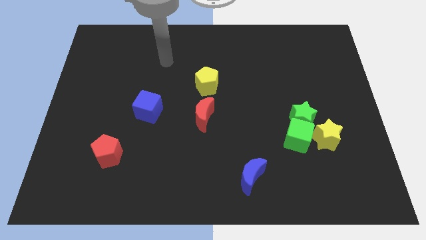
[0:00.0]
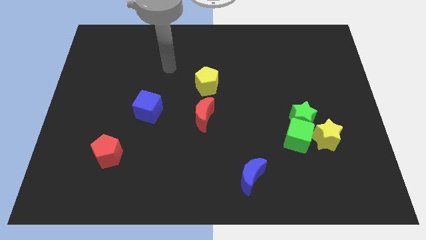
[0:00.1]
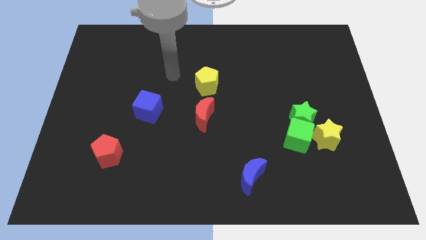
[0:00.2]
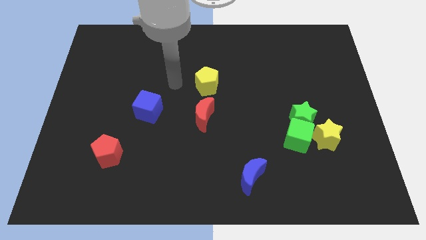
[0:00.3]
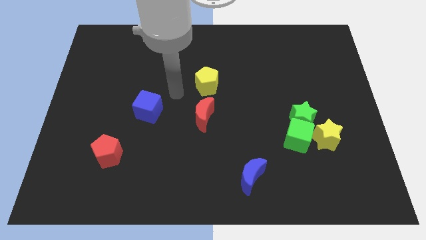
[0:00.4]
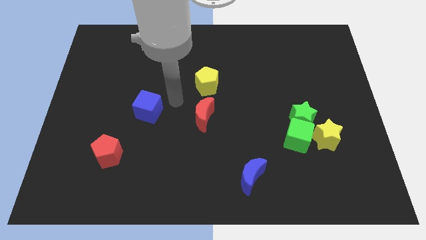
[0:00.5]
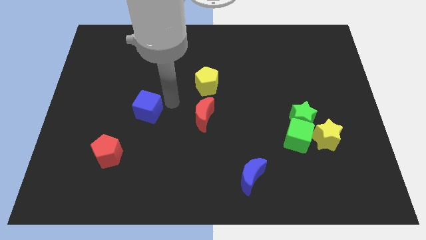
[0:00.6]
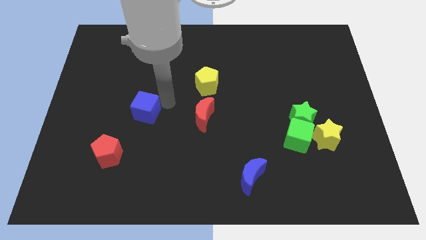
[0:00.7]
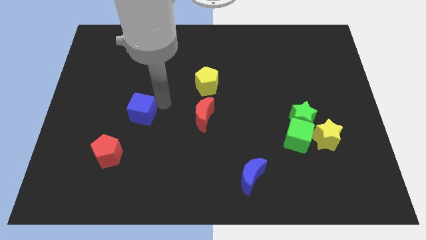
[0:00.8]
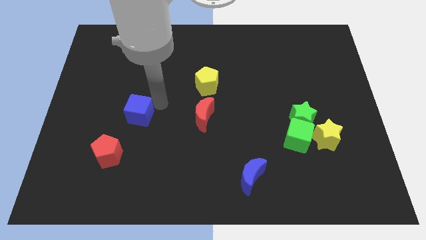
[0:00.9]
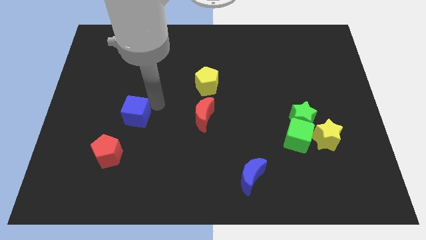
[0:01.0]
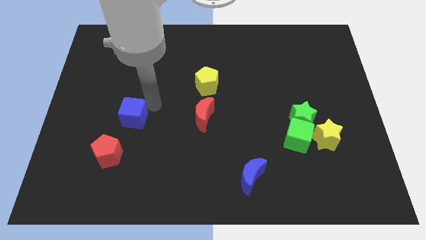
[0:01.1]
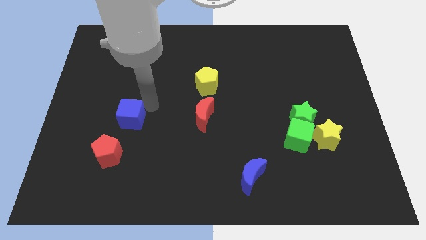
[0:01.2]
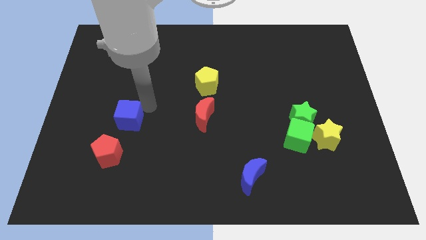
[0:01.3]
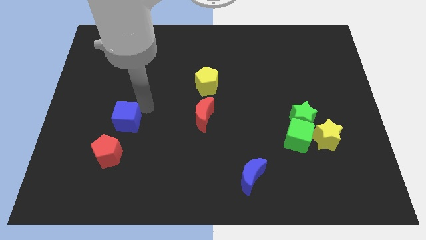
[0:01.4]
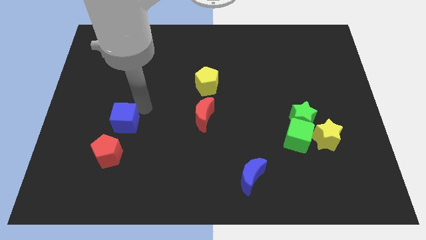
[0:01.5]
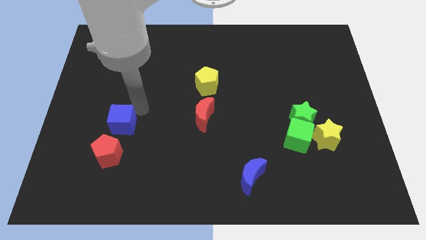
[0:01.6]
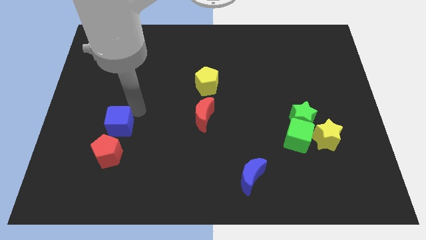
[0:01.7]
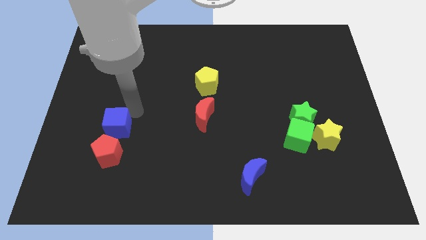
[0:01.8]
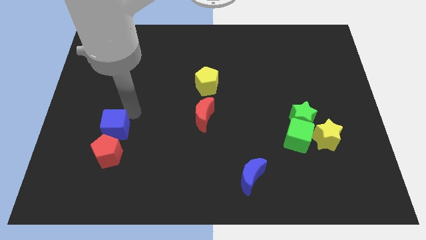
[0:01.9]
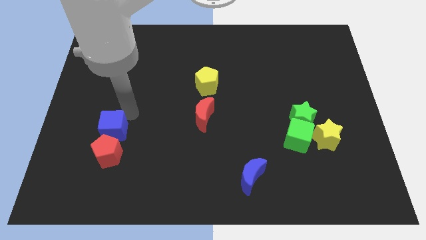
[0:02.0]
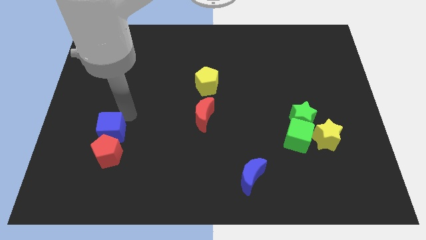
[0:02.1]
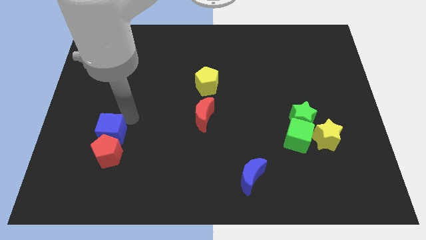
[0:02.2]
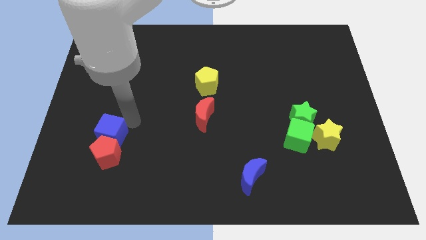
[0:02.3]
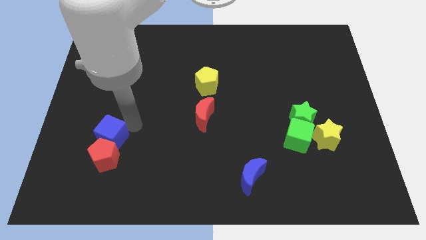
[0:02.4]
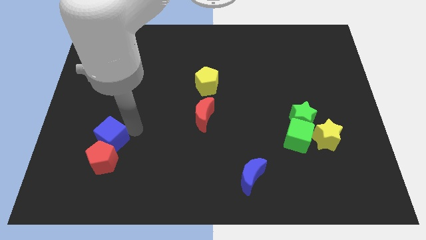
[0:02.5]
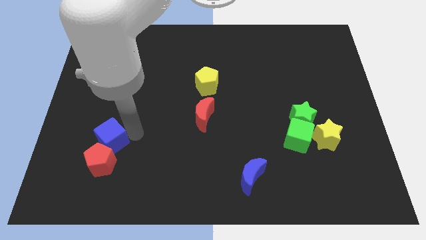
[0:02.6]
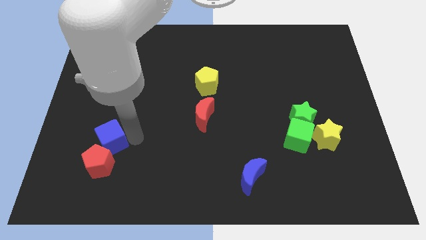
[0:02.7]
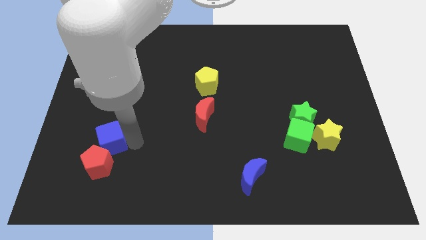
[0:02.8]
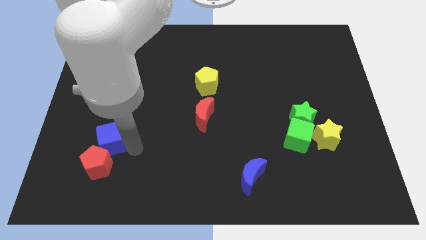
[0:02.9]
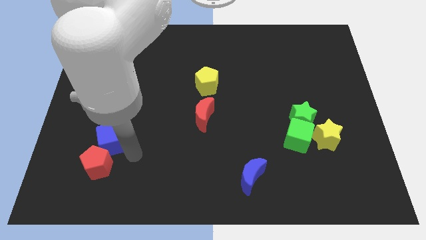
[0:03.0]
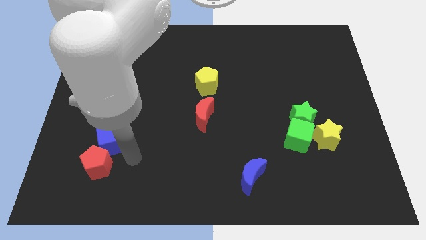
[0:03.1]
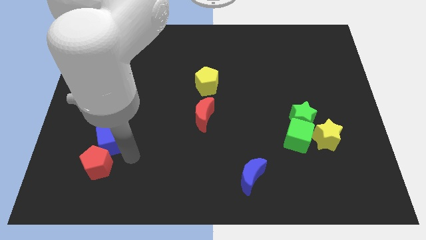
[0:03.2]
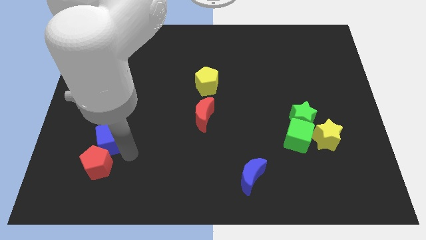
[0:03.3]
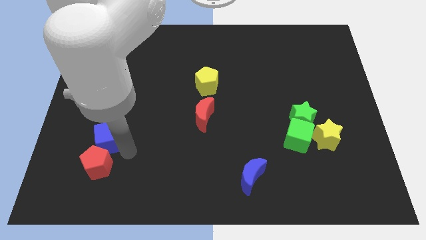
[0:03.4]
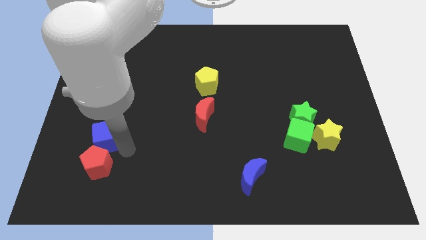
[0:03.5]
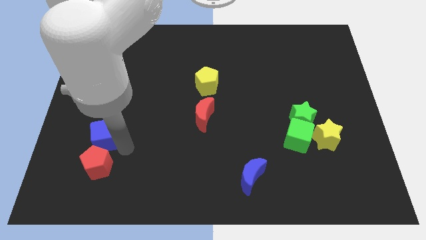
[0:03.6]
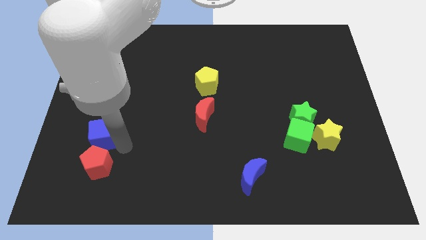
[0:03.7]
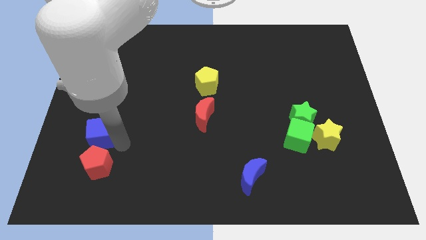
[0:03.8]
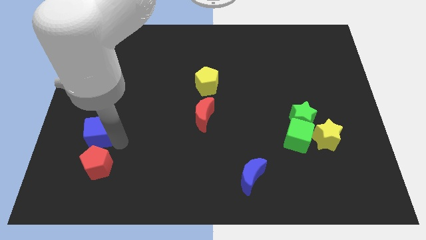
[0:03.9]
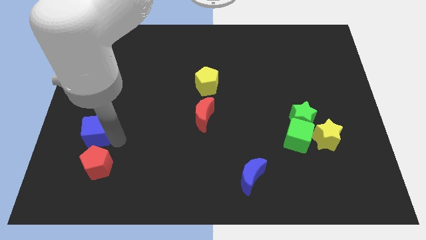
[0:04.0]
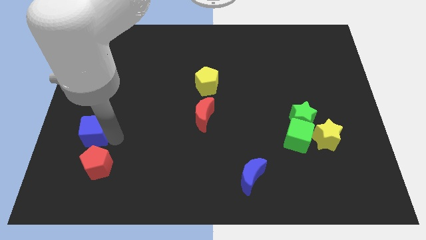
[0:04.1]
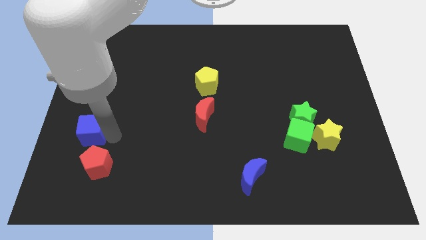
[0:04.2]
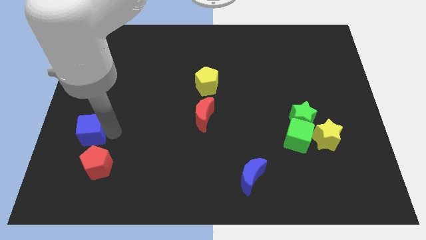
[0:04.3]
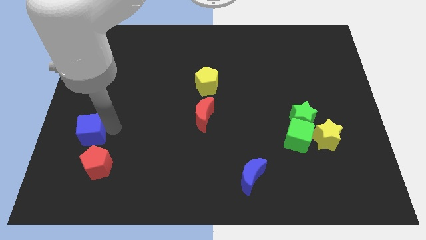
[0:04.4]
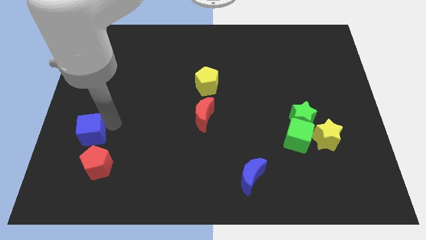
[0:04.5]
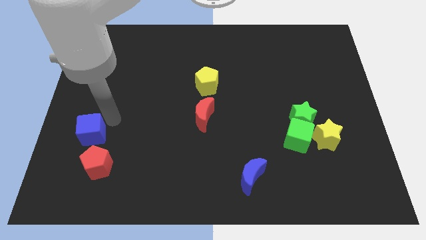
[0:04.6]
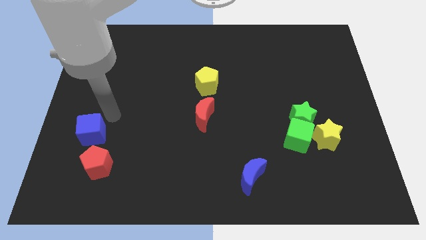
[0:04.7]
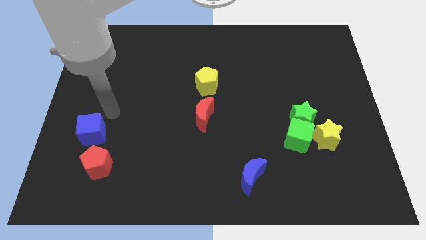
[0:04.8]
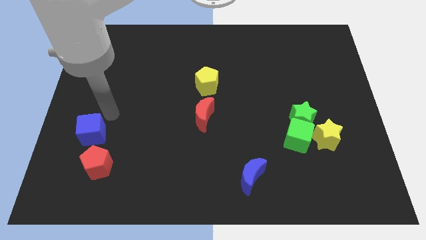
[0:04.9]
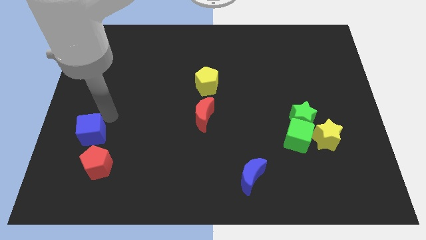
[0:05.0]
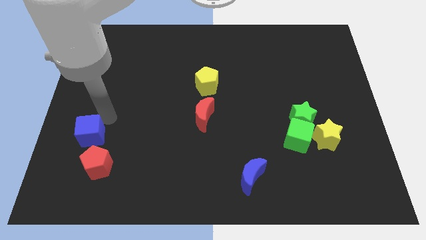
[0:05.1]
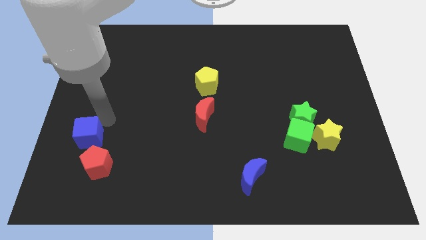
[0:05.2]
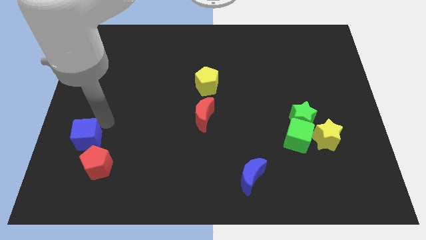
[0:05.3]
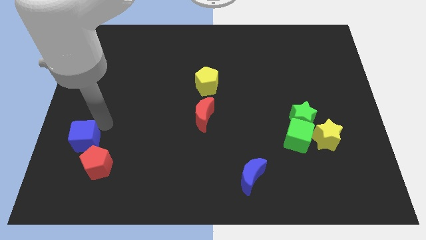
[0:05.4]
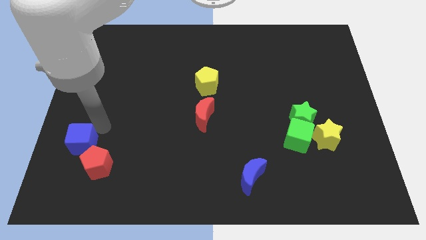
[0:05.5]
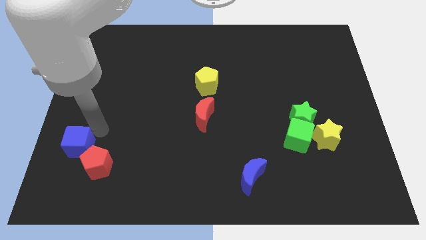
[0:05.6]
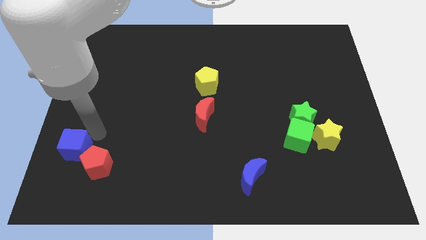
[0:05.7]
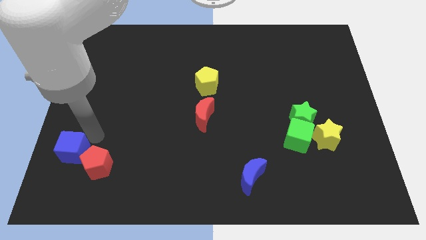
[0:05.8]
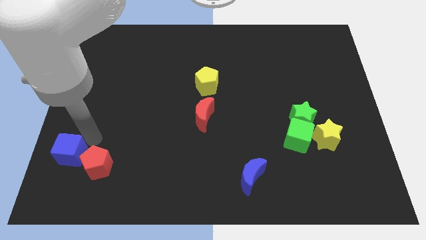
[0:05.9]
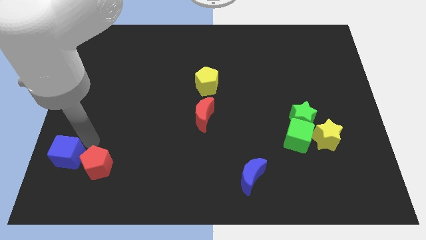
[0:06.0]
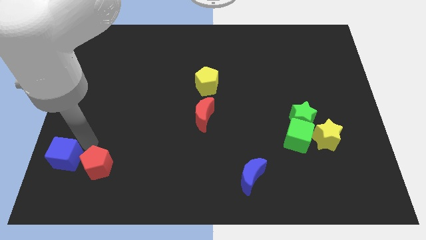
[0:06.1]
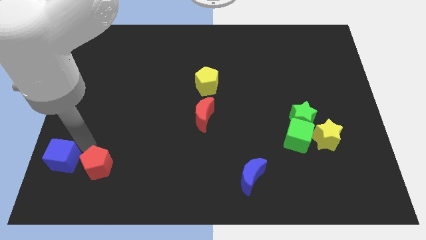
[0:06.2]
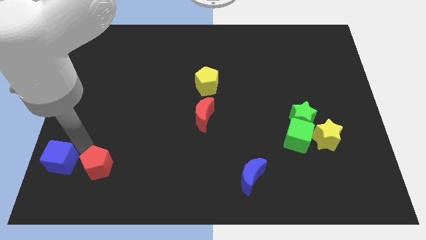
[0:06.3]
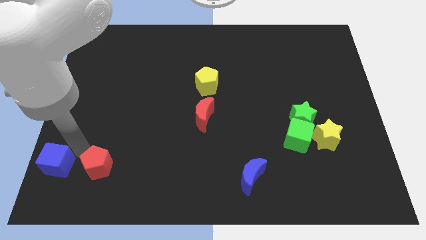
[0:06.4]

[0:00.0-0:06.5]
slide the blue cube to the bottom left

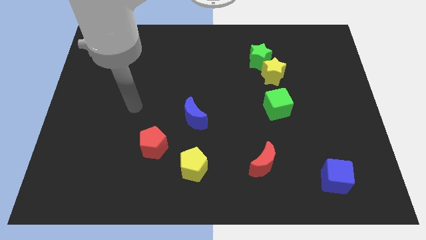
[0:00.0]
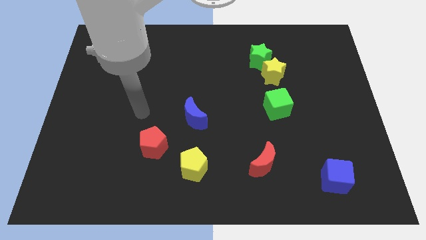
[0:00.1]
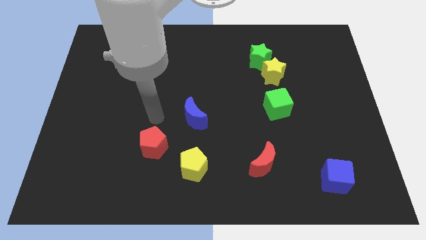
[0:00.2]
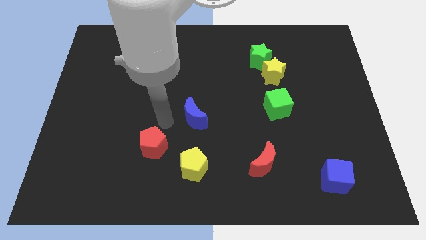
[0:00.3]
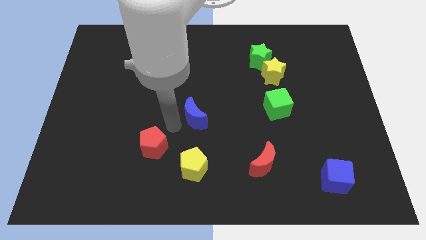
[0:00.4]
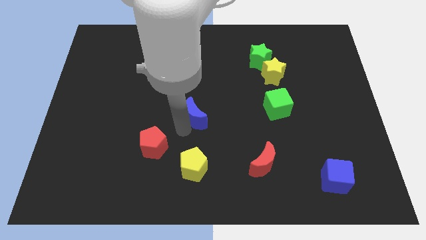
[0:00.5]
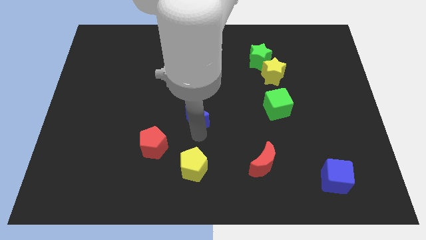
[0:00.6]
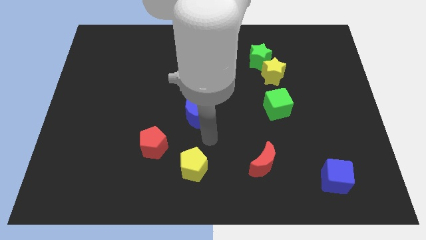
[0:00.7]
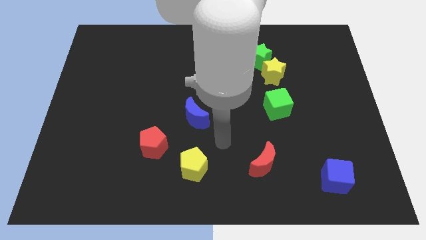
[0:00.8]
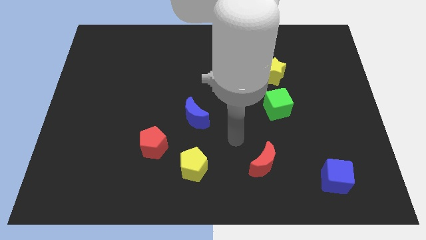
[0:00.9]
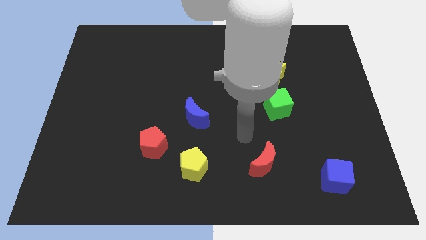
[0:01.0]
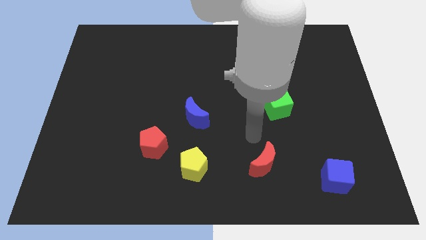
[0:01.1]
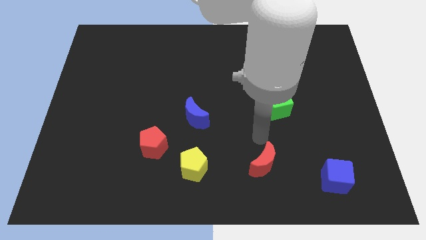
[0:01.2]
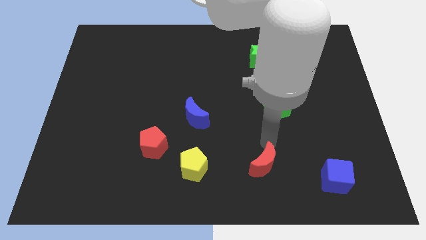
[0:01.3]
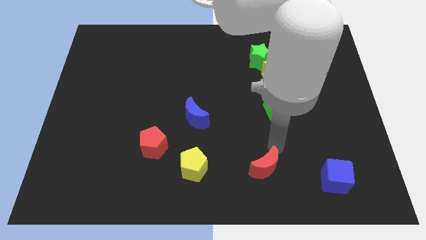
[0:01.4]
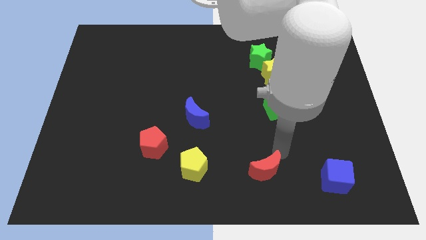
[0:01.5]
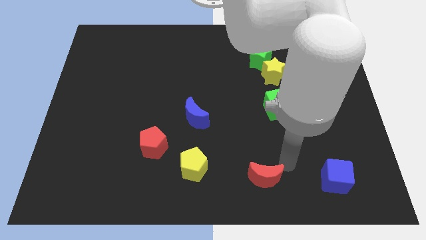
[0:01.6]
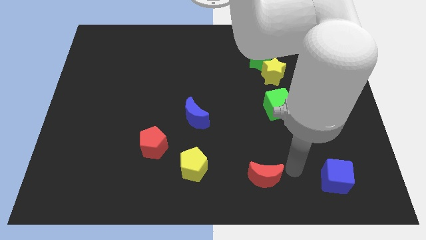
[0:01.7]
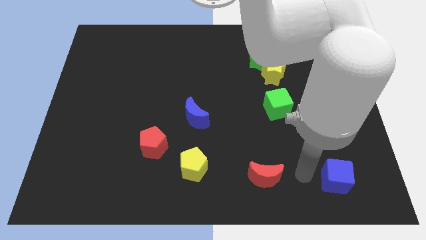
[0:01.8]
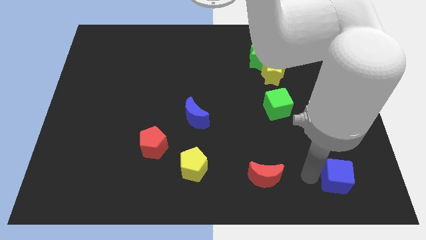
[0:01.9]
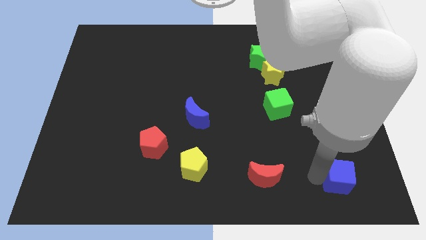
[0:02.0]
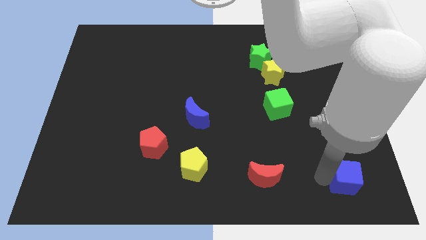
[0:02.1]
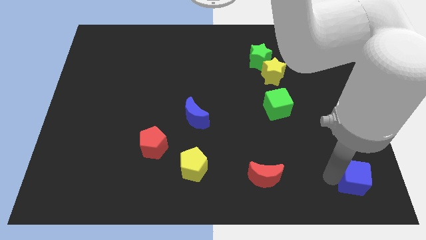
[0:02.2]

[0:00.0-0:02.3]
put the blue cube to the bottom right of the board

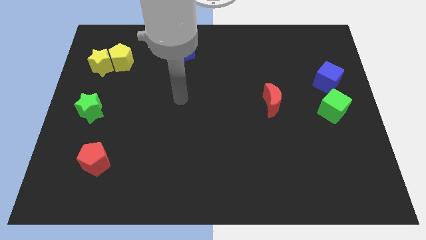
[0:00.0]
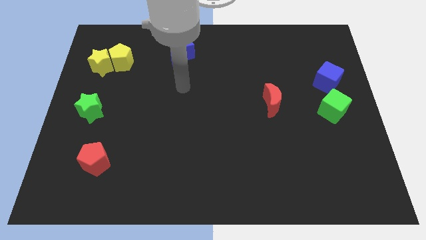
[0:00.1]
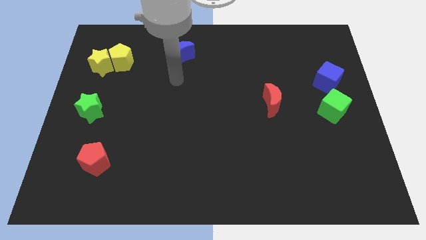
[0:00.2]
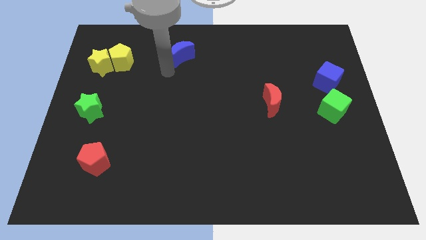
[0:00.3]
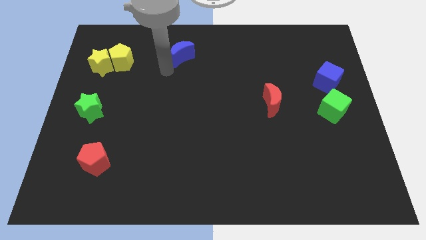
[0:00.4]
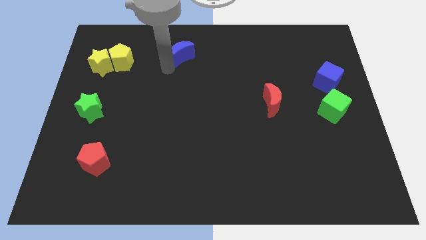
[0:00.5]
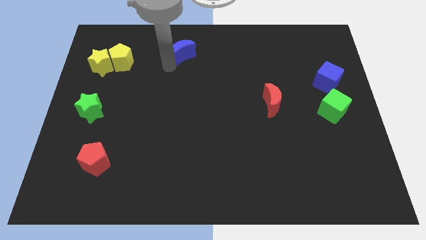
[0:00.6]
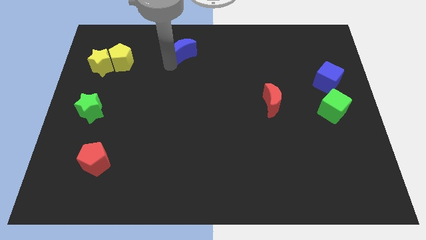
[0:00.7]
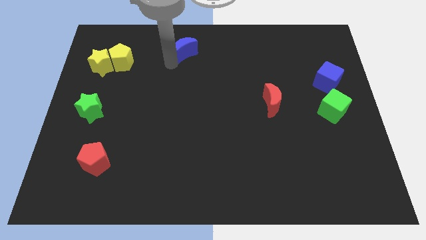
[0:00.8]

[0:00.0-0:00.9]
push the blue moon to the towards your base
